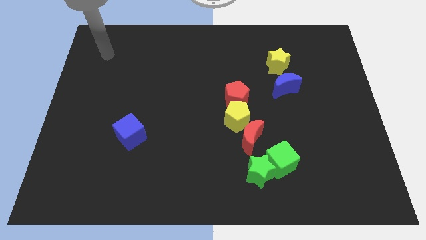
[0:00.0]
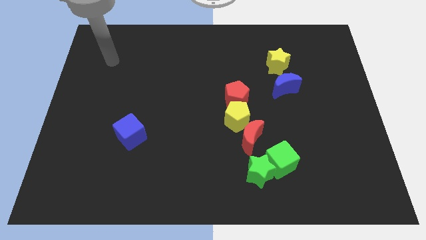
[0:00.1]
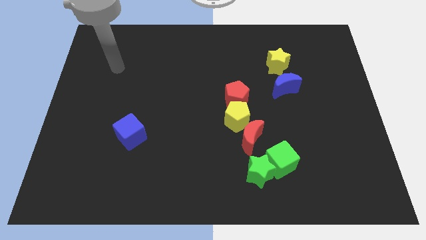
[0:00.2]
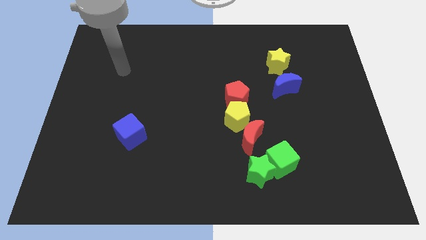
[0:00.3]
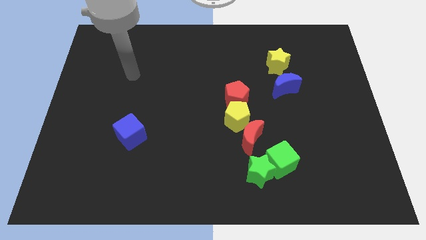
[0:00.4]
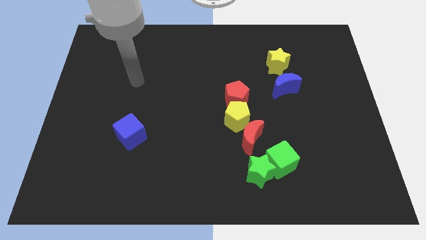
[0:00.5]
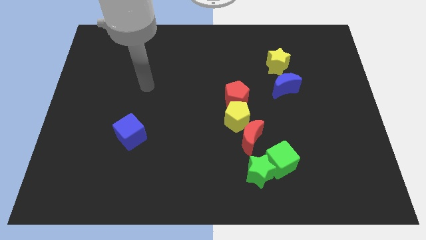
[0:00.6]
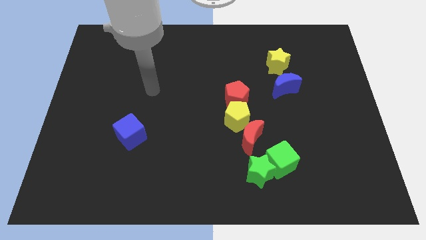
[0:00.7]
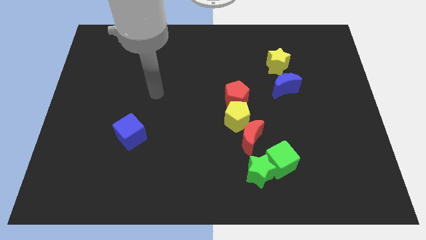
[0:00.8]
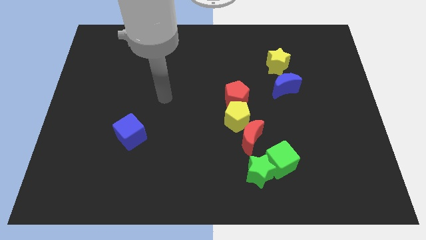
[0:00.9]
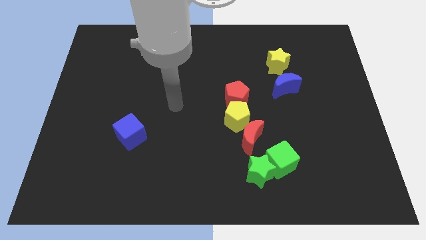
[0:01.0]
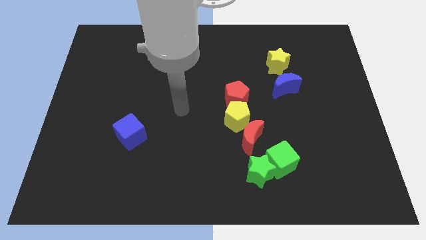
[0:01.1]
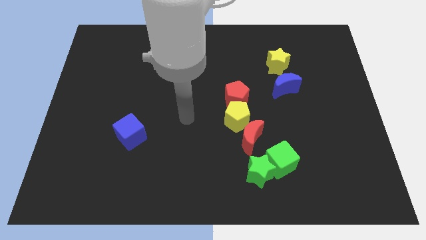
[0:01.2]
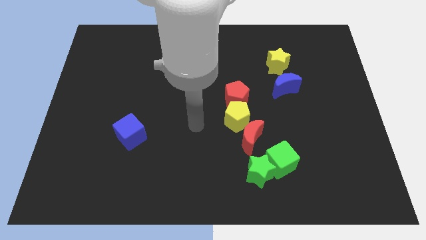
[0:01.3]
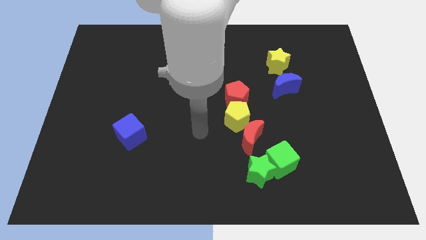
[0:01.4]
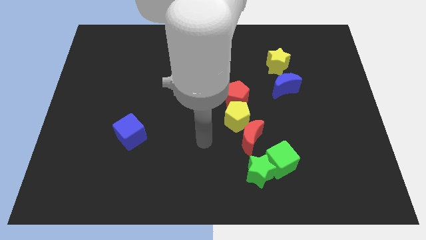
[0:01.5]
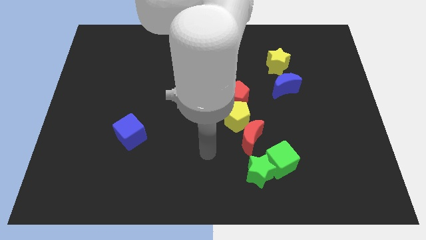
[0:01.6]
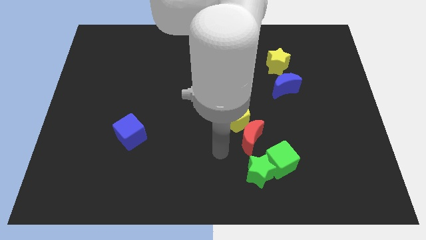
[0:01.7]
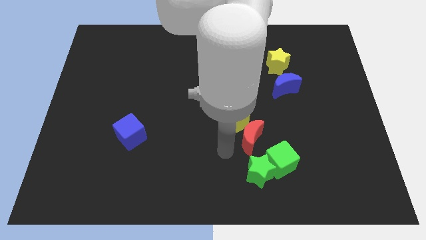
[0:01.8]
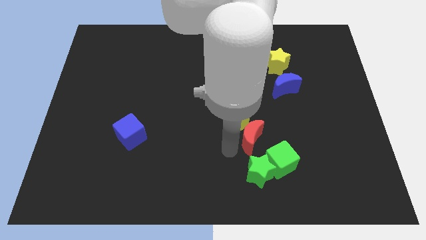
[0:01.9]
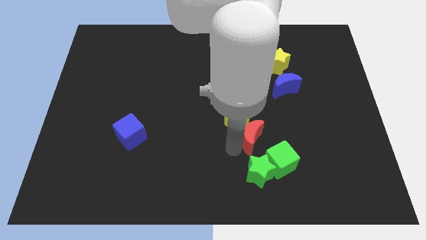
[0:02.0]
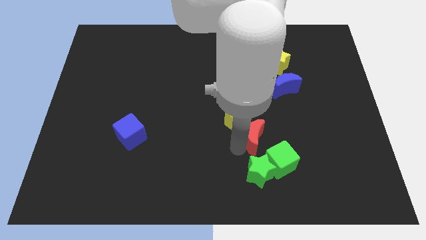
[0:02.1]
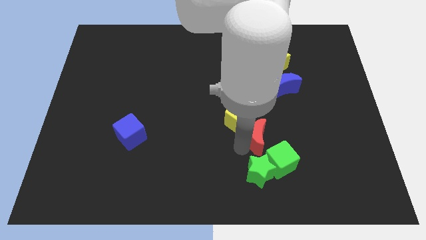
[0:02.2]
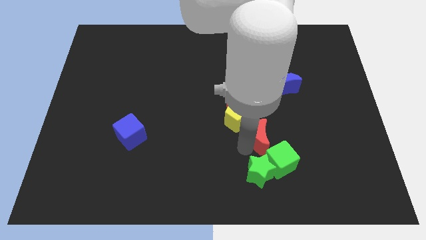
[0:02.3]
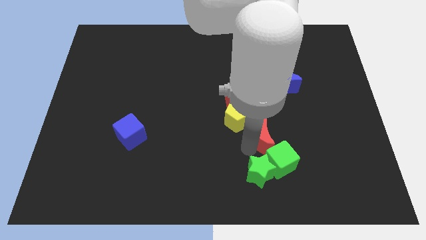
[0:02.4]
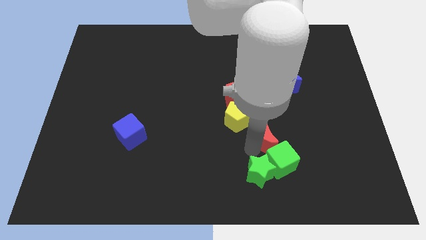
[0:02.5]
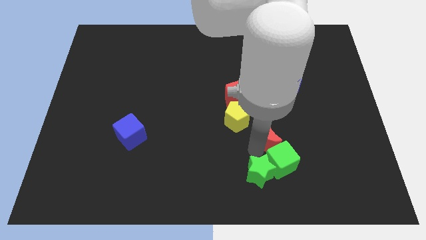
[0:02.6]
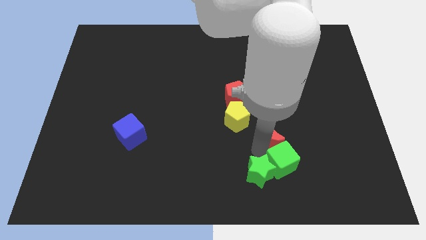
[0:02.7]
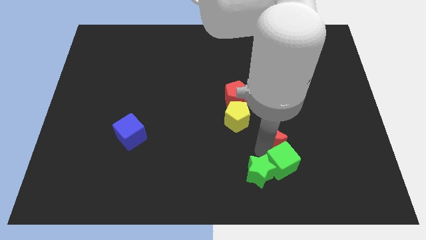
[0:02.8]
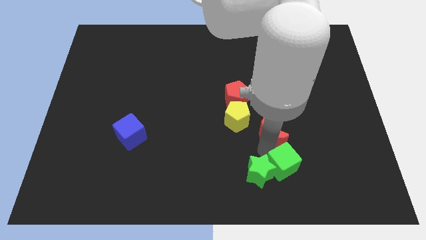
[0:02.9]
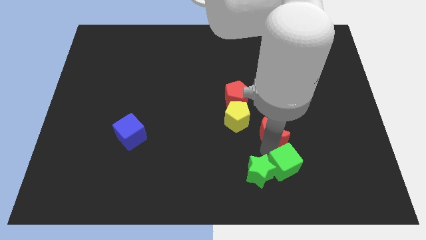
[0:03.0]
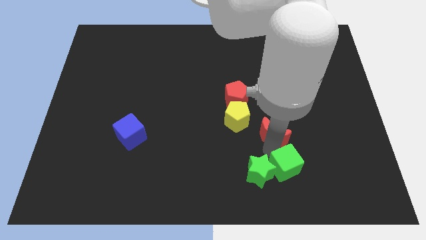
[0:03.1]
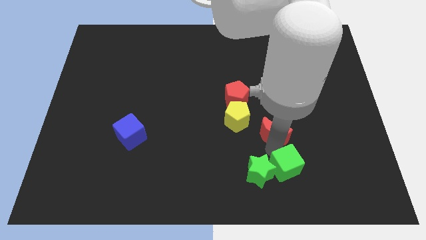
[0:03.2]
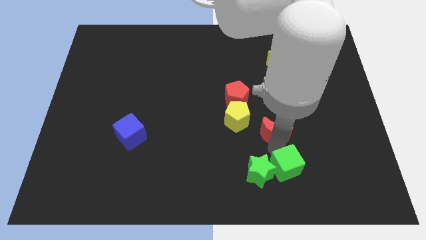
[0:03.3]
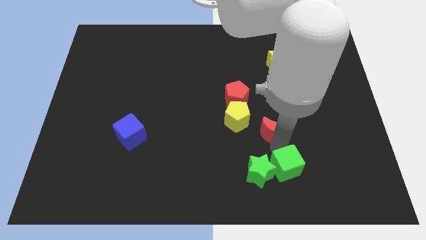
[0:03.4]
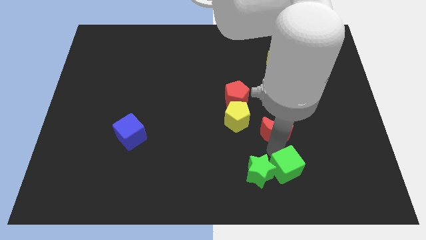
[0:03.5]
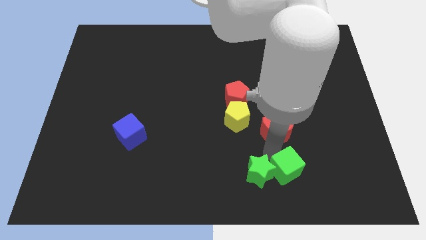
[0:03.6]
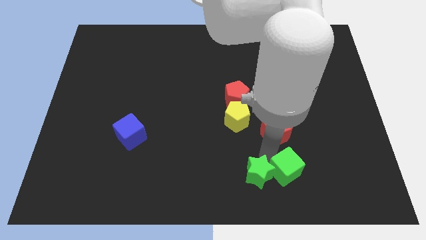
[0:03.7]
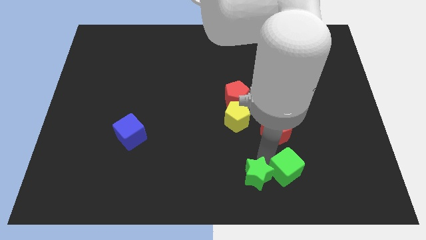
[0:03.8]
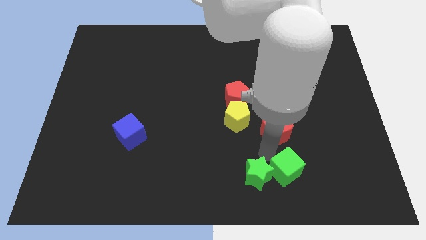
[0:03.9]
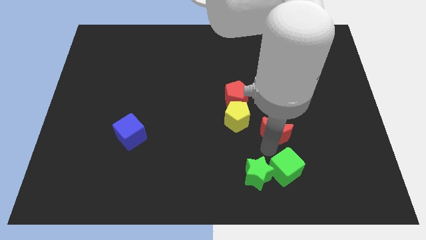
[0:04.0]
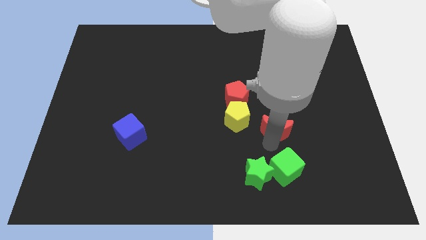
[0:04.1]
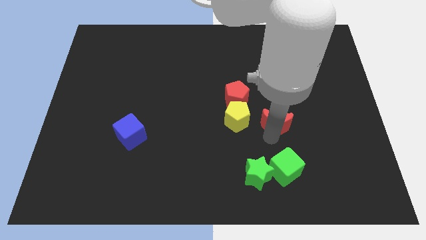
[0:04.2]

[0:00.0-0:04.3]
move the red moon slightly diagonally upwards and to the right

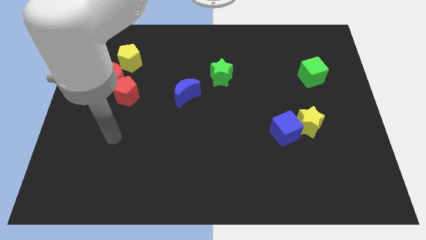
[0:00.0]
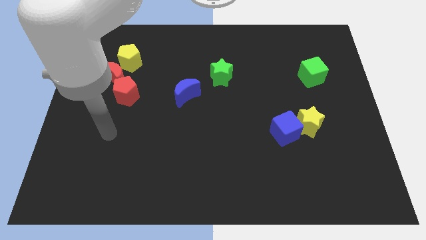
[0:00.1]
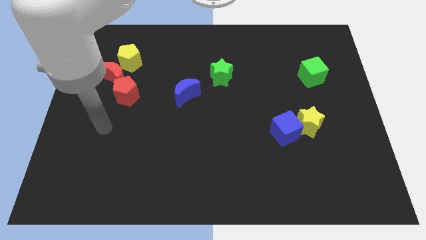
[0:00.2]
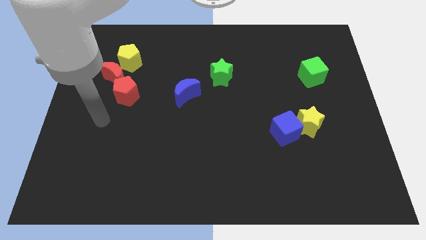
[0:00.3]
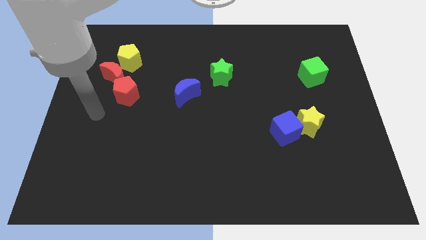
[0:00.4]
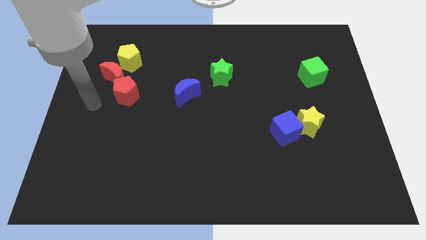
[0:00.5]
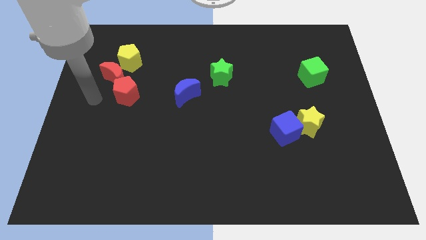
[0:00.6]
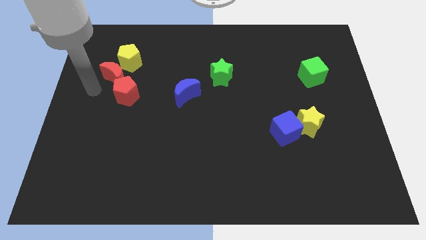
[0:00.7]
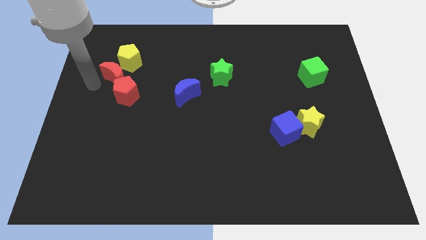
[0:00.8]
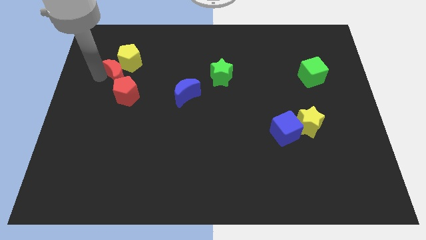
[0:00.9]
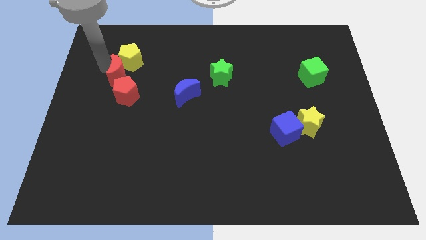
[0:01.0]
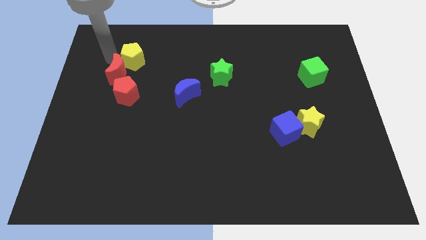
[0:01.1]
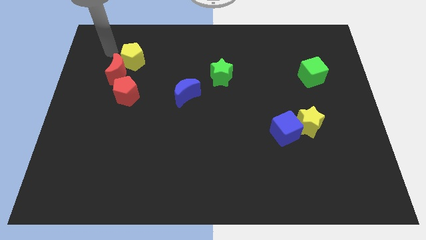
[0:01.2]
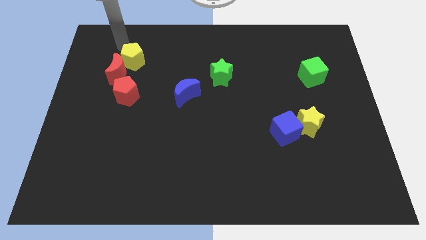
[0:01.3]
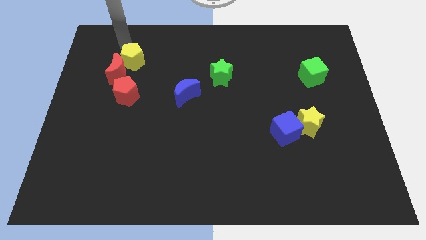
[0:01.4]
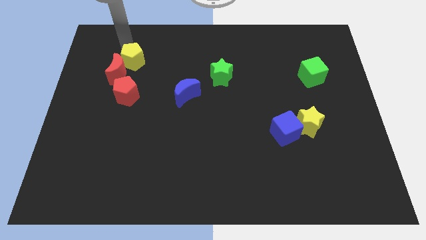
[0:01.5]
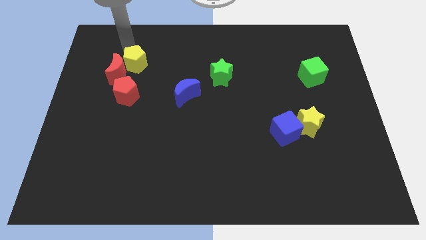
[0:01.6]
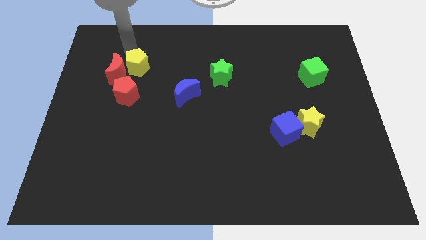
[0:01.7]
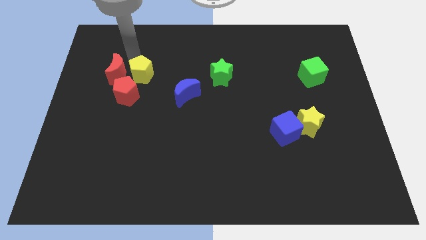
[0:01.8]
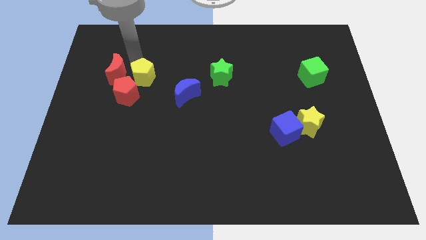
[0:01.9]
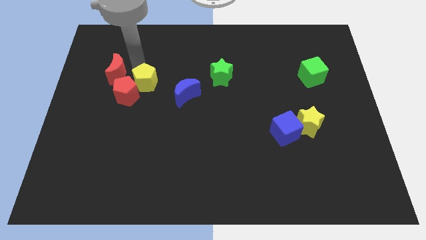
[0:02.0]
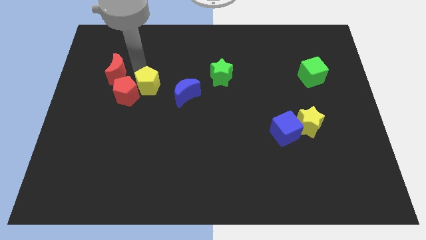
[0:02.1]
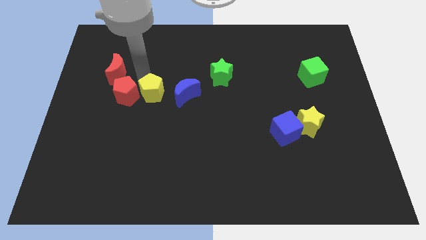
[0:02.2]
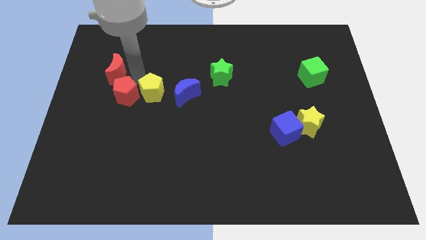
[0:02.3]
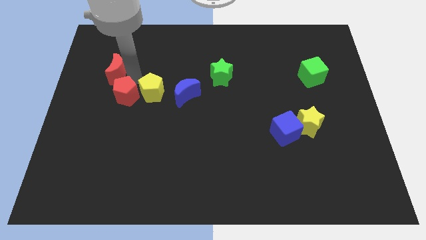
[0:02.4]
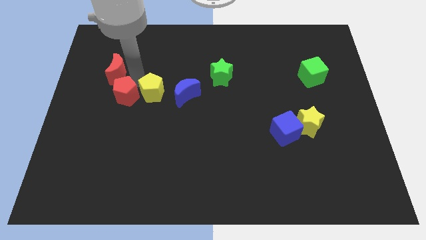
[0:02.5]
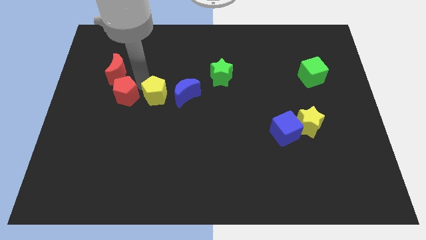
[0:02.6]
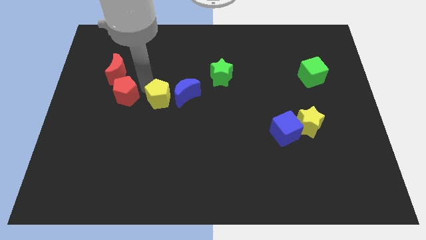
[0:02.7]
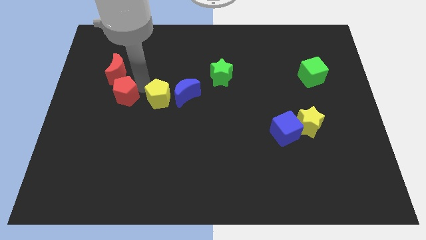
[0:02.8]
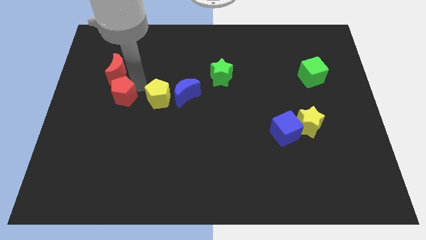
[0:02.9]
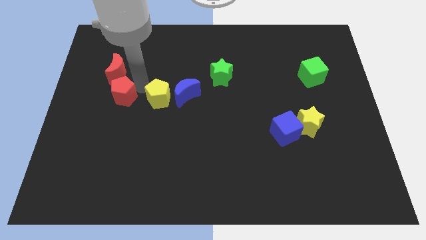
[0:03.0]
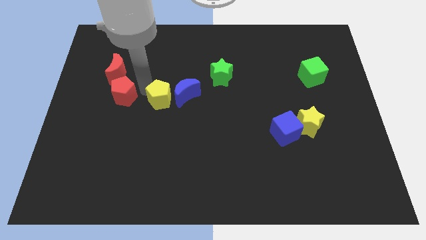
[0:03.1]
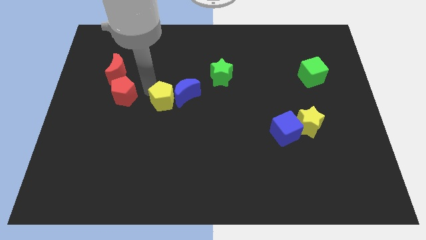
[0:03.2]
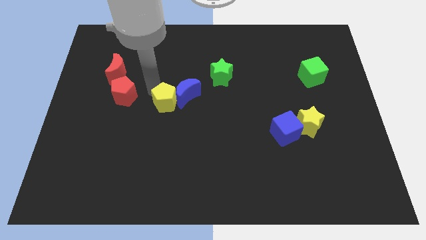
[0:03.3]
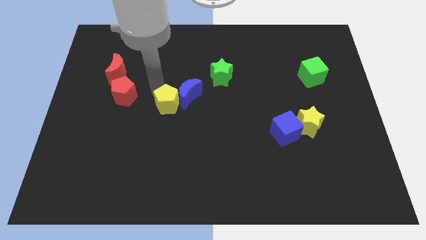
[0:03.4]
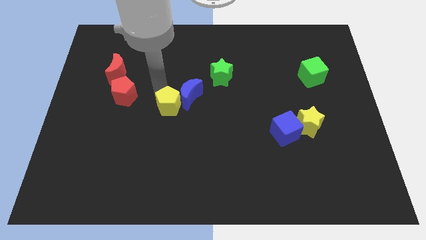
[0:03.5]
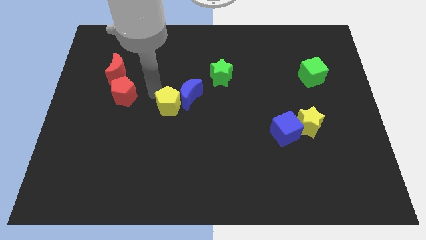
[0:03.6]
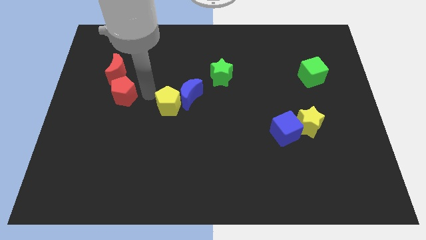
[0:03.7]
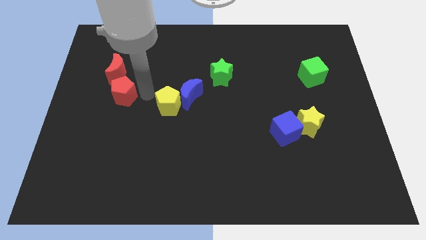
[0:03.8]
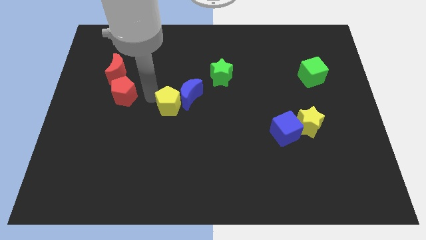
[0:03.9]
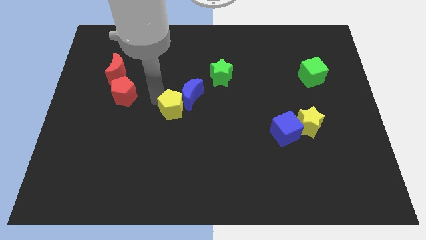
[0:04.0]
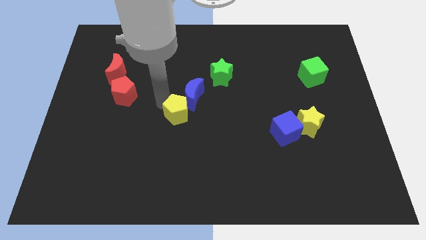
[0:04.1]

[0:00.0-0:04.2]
slide the yellow pentagon diagonally downwards and right
